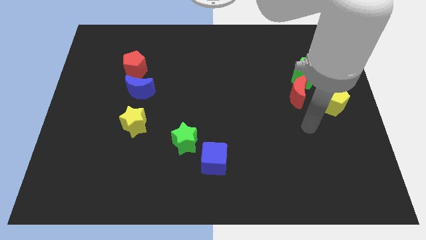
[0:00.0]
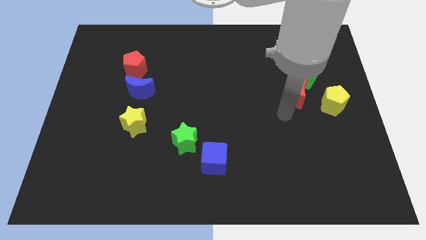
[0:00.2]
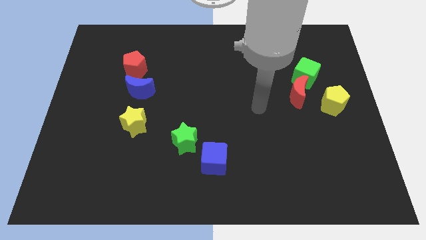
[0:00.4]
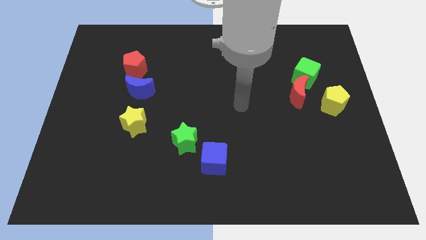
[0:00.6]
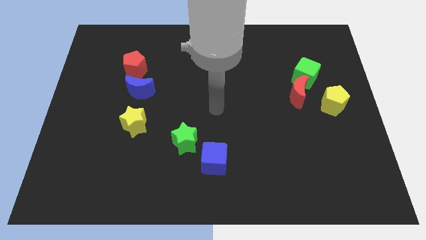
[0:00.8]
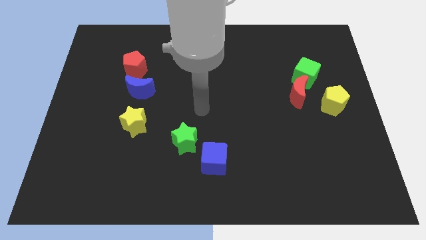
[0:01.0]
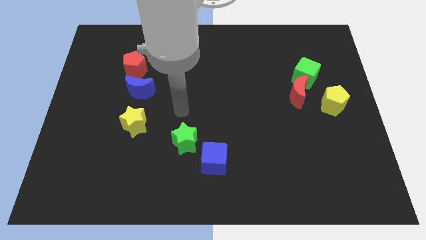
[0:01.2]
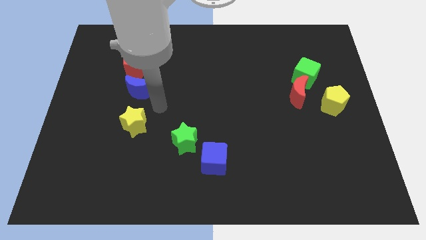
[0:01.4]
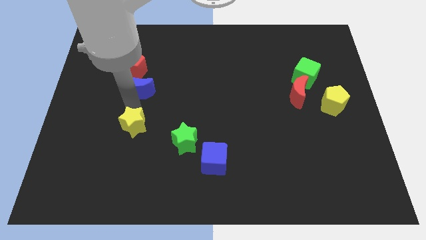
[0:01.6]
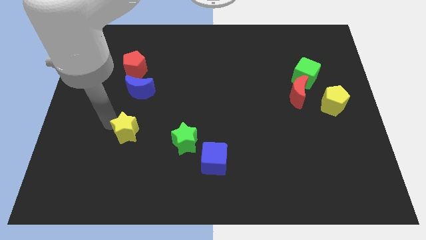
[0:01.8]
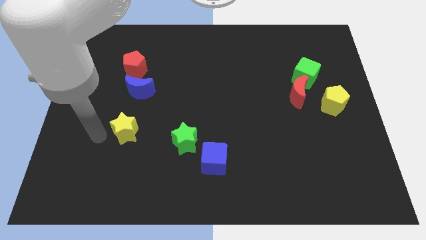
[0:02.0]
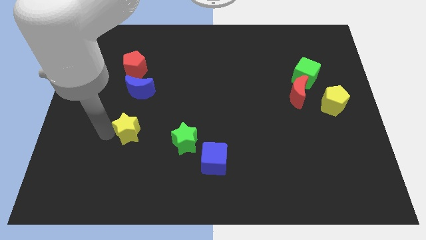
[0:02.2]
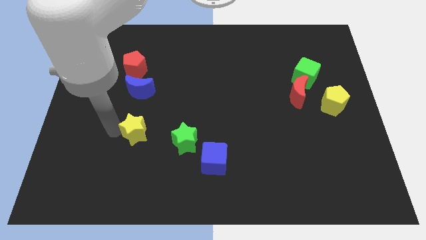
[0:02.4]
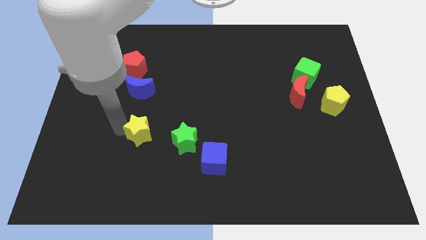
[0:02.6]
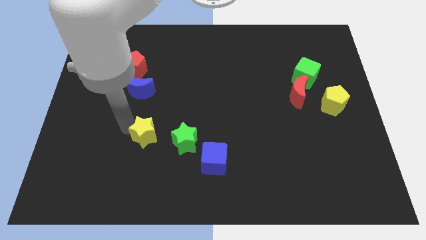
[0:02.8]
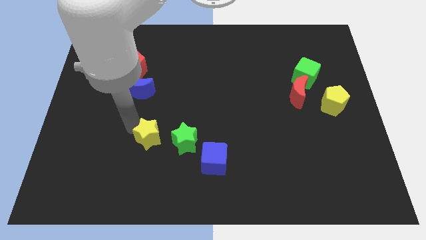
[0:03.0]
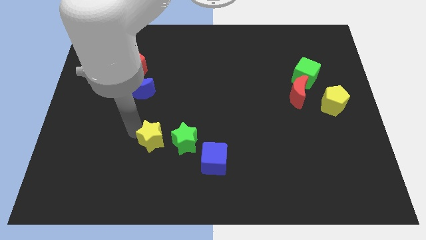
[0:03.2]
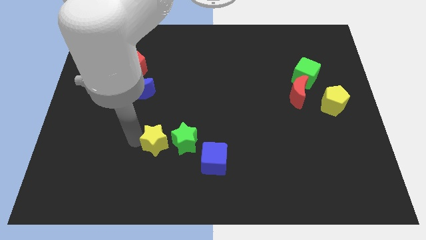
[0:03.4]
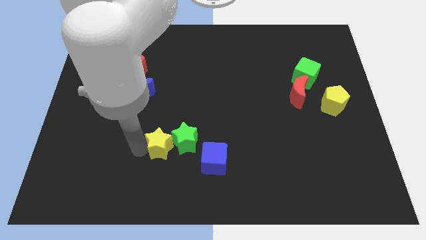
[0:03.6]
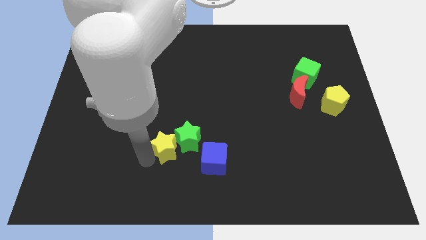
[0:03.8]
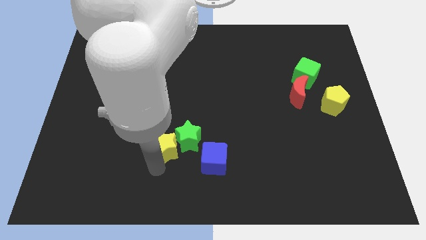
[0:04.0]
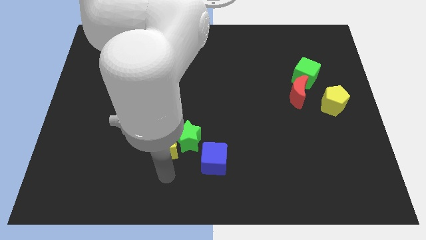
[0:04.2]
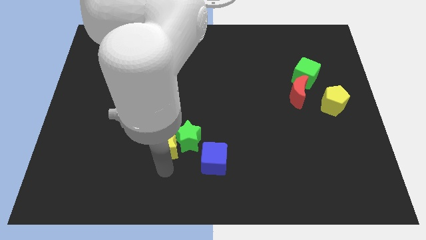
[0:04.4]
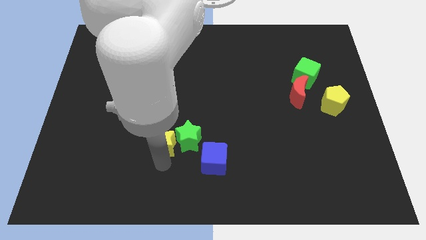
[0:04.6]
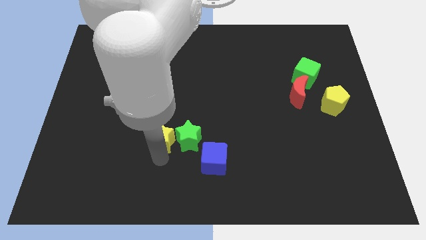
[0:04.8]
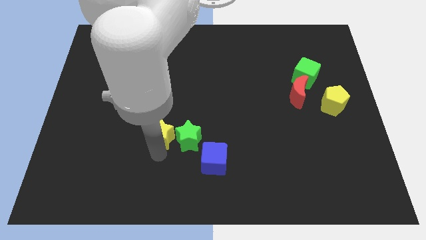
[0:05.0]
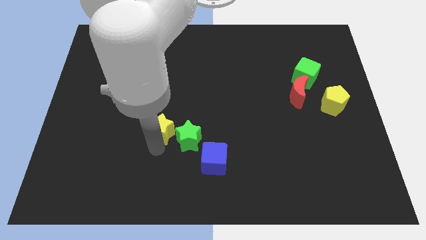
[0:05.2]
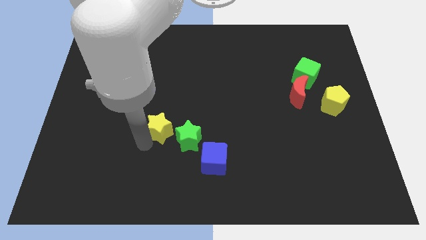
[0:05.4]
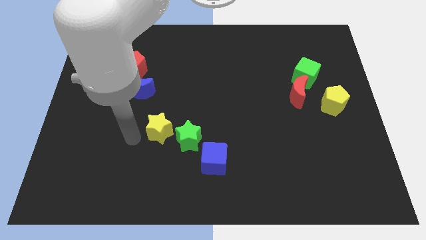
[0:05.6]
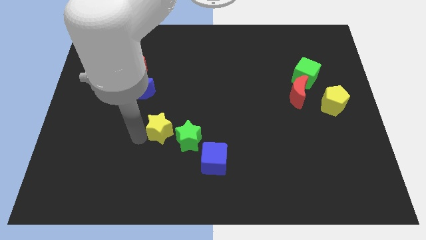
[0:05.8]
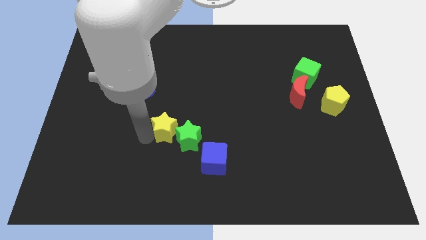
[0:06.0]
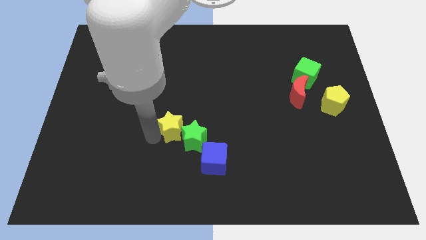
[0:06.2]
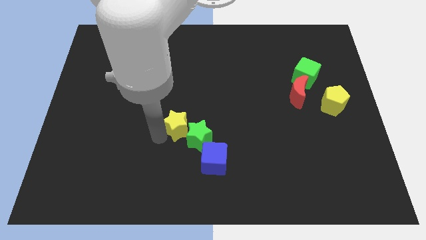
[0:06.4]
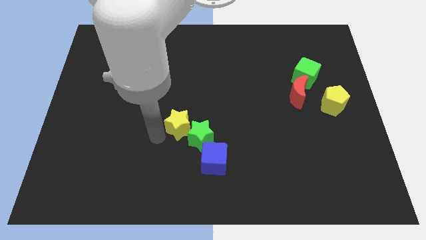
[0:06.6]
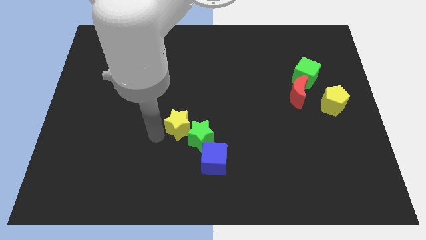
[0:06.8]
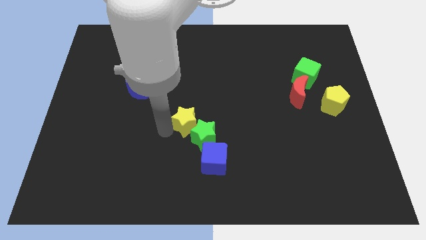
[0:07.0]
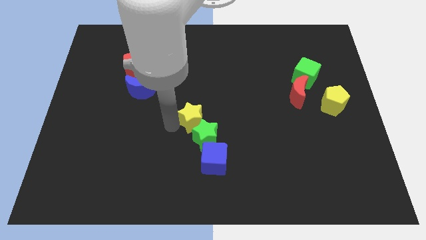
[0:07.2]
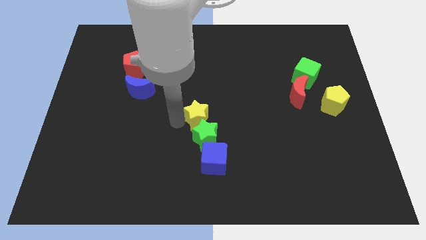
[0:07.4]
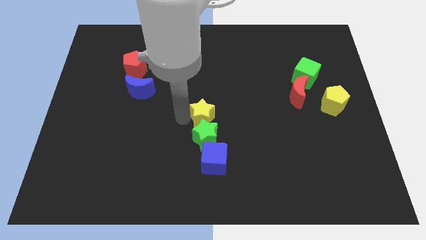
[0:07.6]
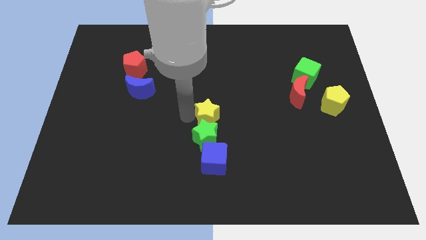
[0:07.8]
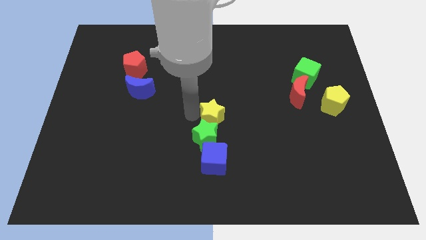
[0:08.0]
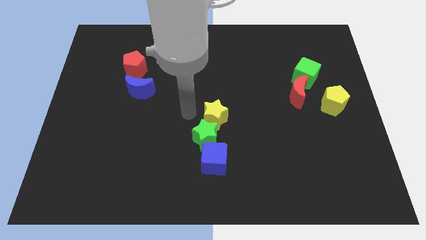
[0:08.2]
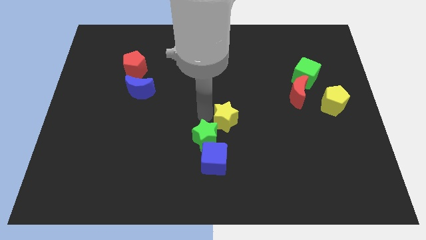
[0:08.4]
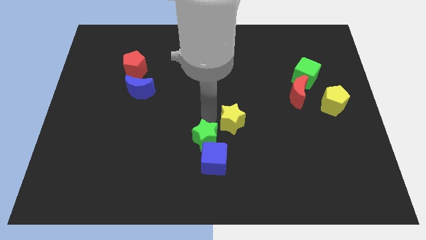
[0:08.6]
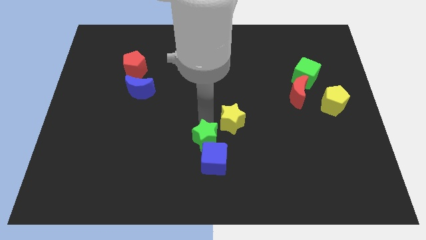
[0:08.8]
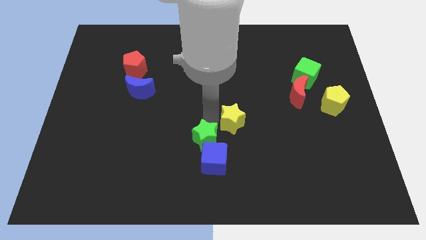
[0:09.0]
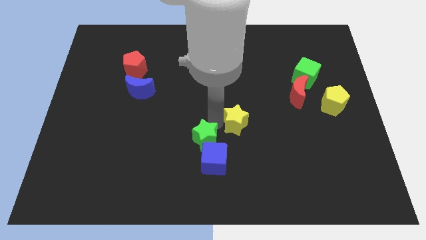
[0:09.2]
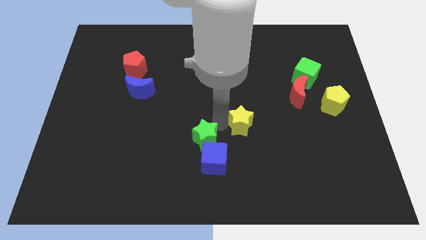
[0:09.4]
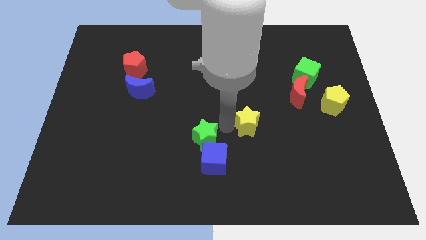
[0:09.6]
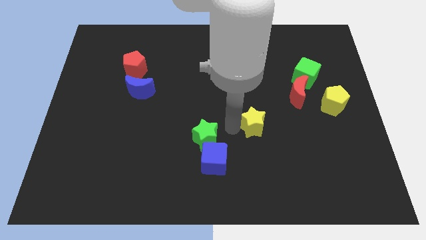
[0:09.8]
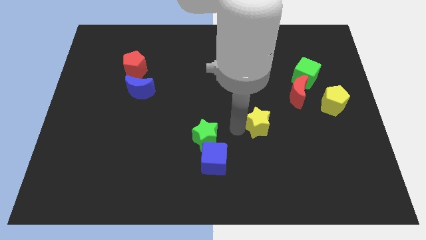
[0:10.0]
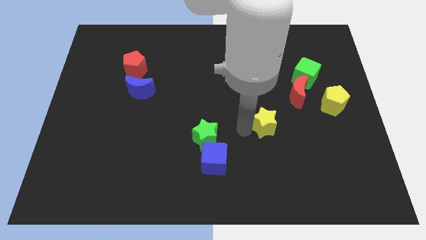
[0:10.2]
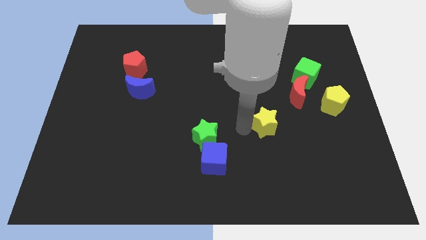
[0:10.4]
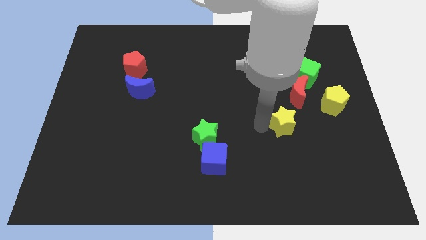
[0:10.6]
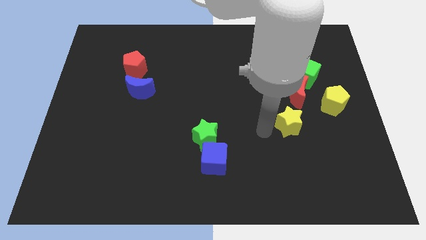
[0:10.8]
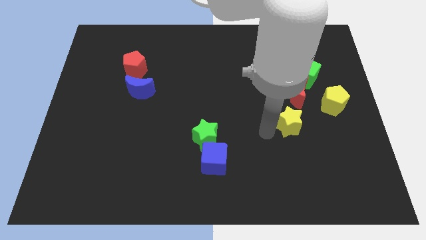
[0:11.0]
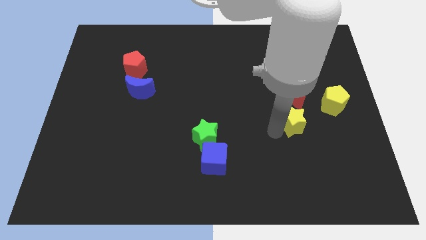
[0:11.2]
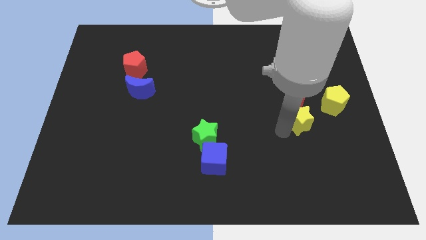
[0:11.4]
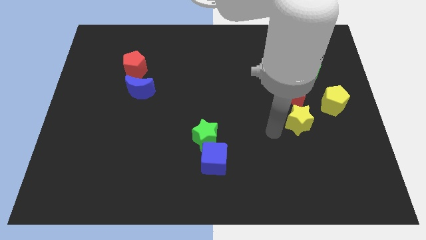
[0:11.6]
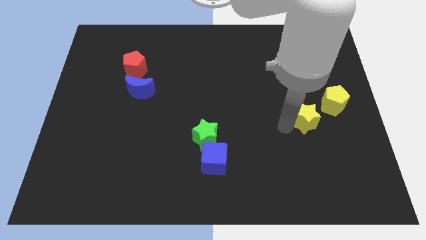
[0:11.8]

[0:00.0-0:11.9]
slide the yellow star to the bottom right side of the red moon

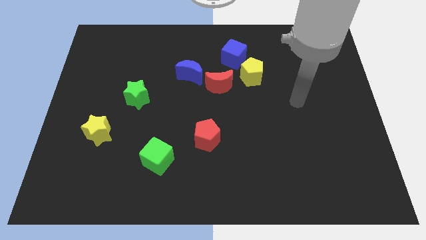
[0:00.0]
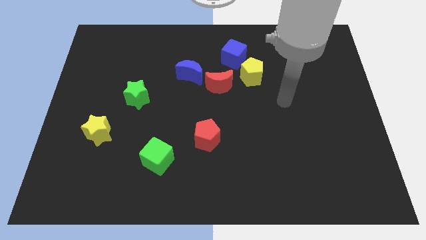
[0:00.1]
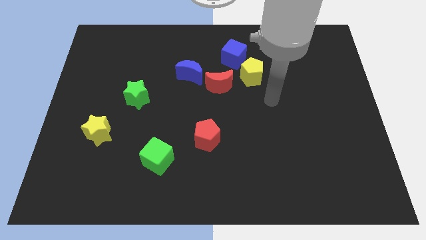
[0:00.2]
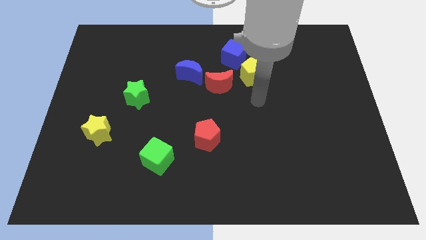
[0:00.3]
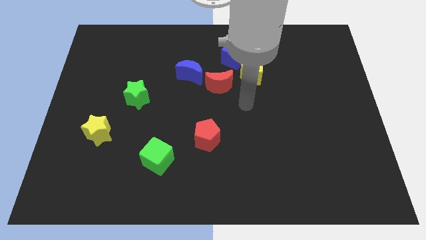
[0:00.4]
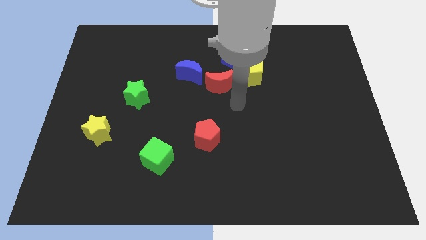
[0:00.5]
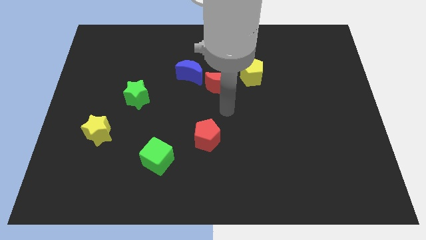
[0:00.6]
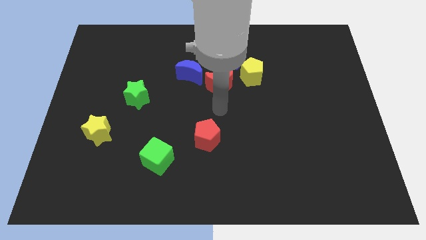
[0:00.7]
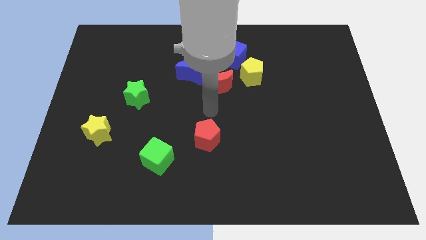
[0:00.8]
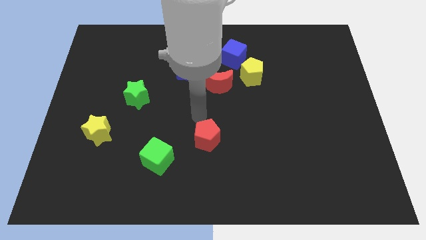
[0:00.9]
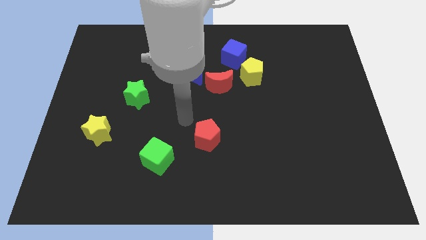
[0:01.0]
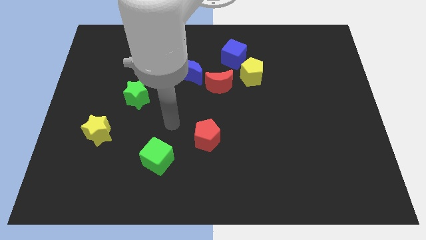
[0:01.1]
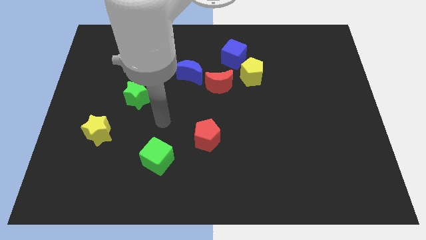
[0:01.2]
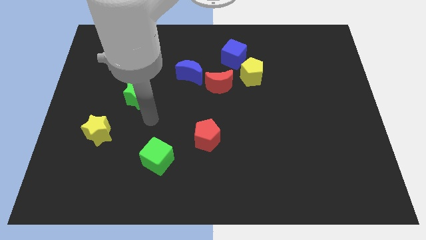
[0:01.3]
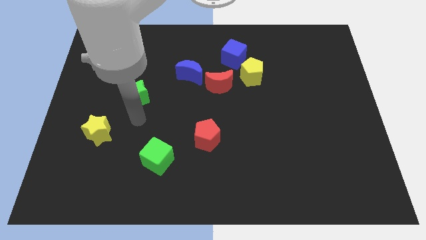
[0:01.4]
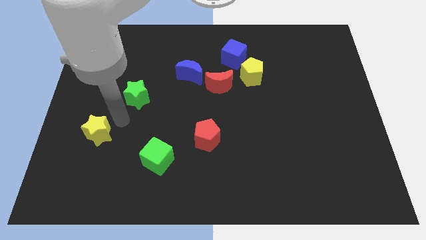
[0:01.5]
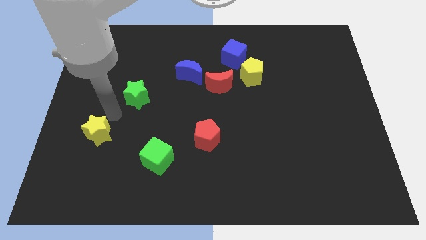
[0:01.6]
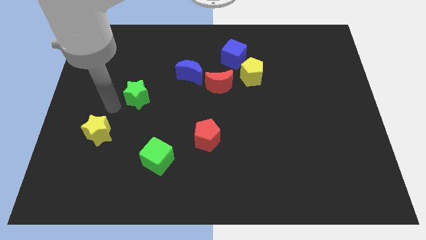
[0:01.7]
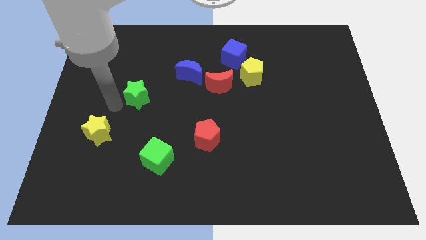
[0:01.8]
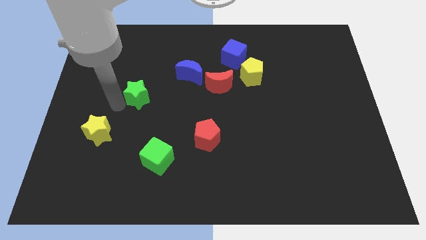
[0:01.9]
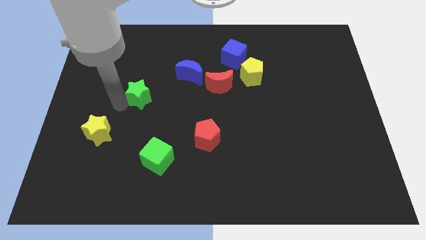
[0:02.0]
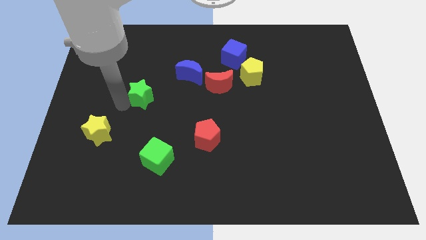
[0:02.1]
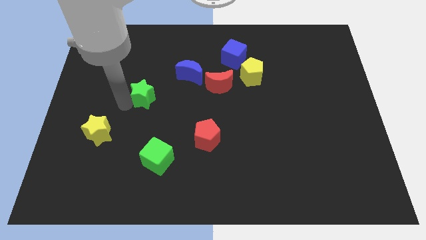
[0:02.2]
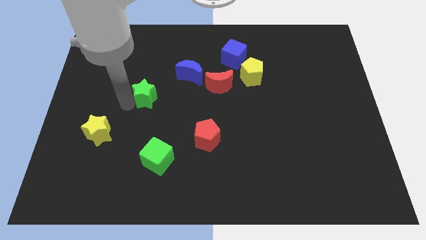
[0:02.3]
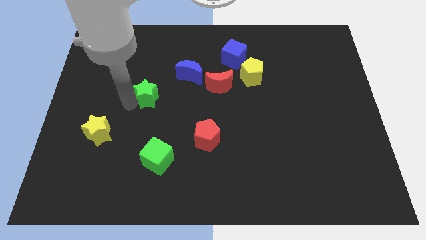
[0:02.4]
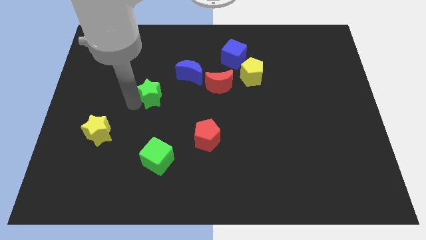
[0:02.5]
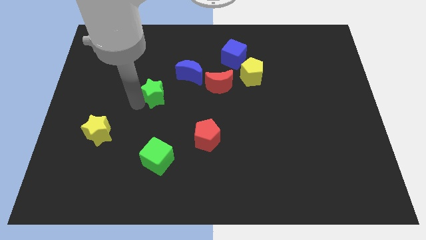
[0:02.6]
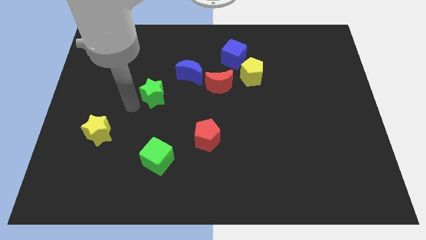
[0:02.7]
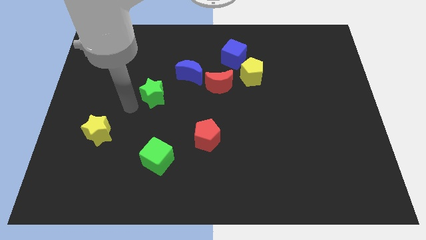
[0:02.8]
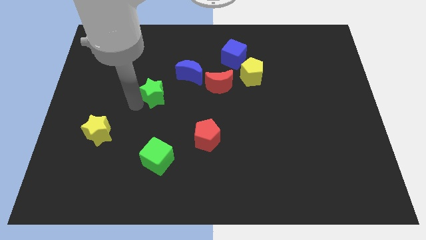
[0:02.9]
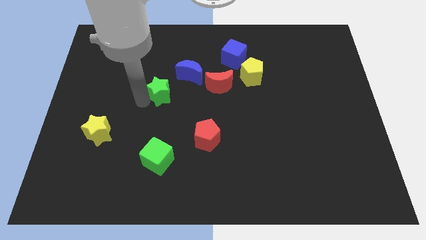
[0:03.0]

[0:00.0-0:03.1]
push the green star to the left of the red moon
